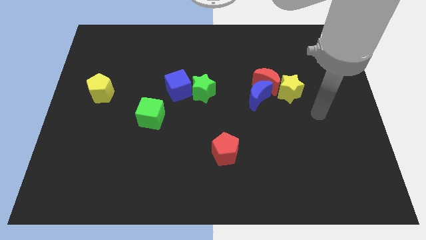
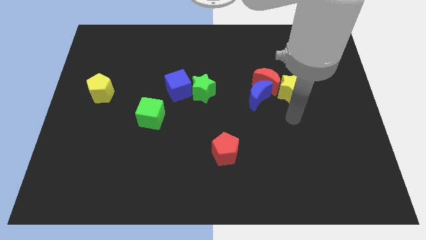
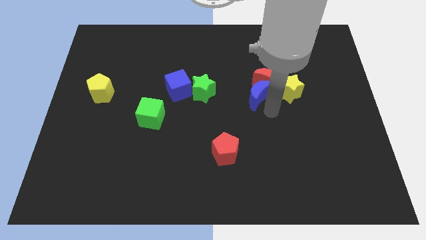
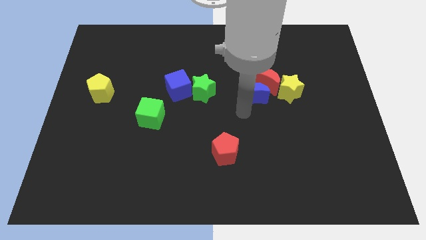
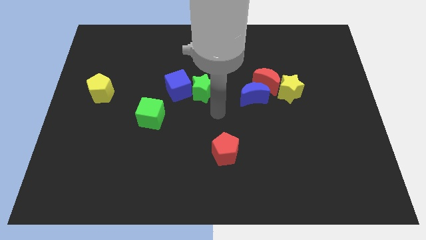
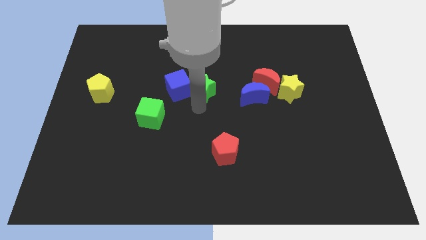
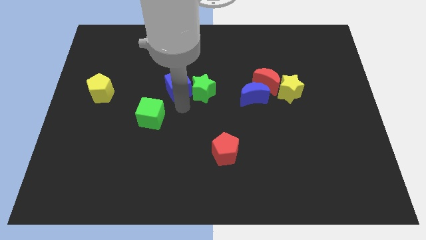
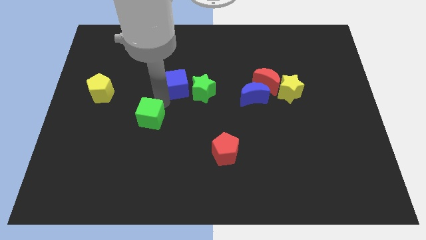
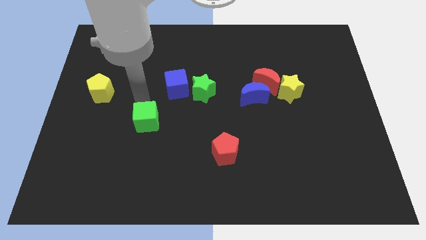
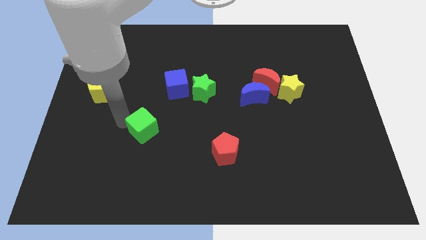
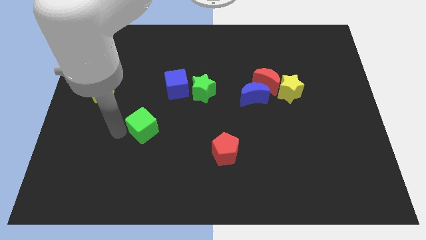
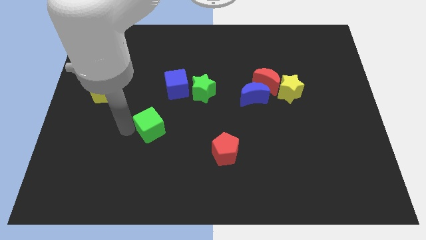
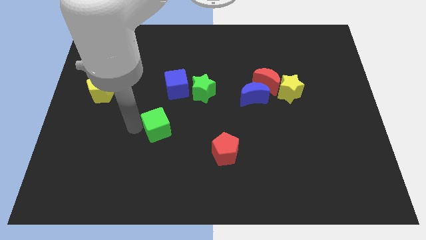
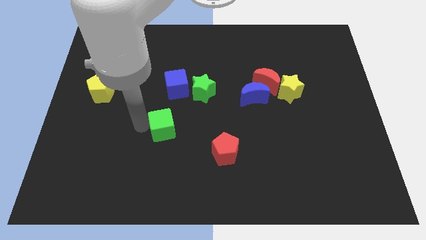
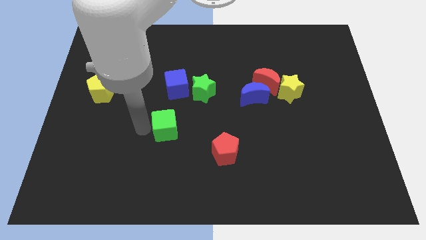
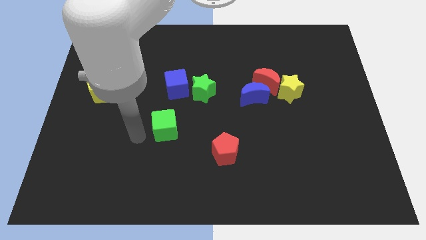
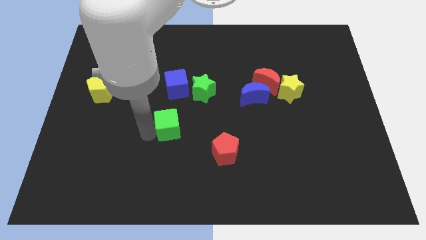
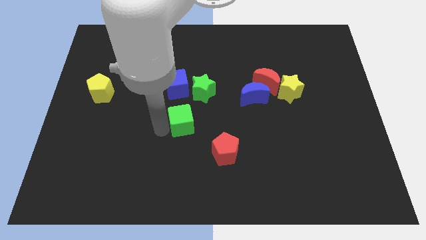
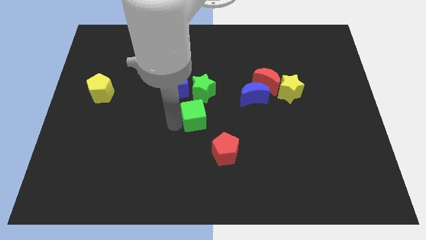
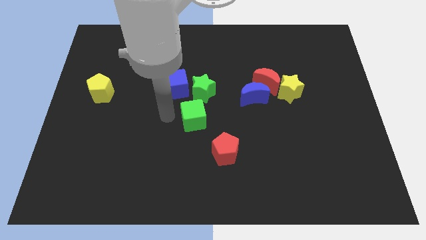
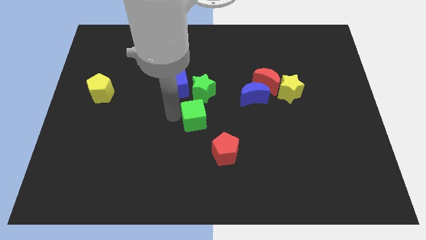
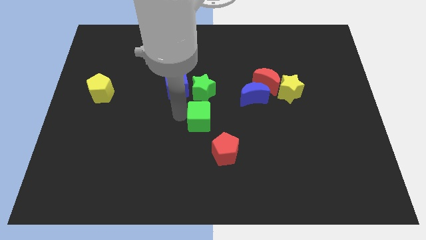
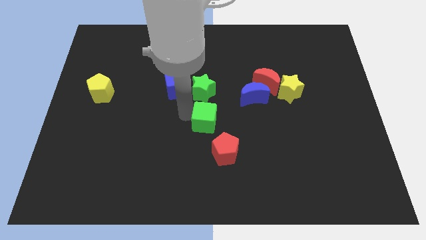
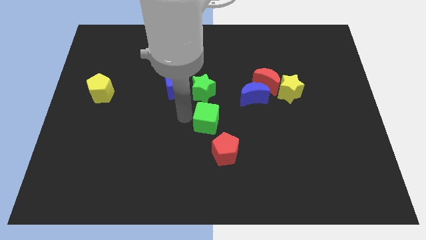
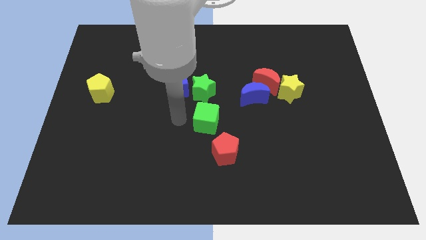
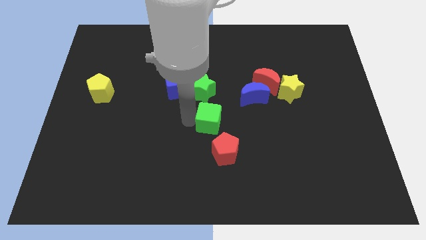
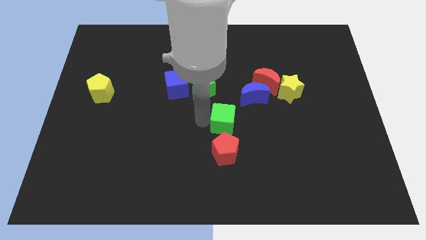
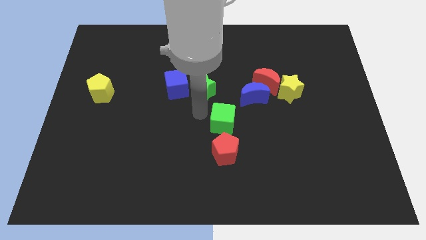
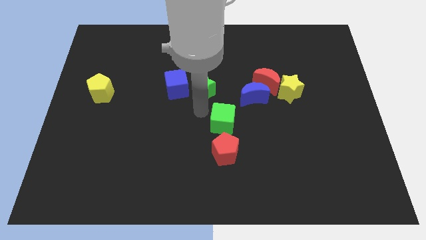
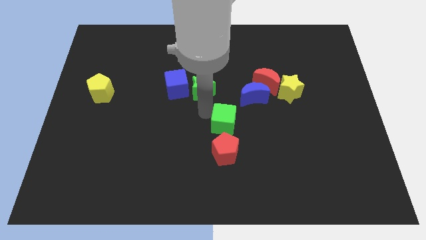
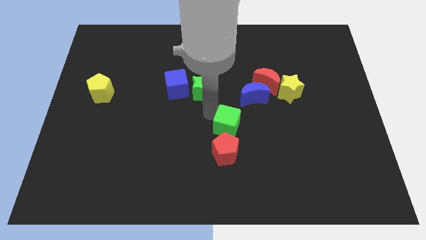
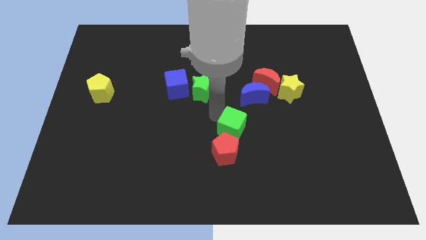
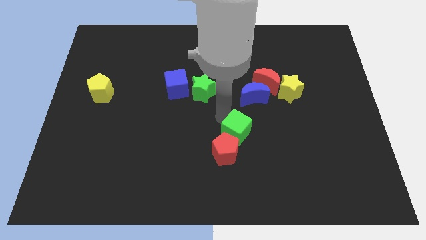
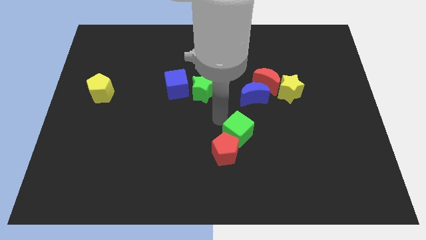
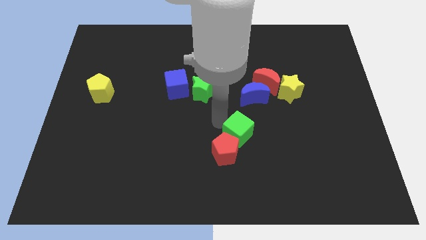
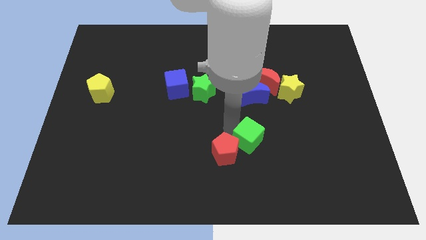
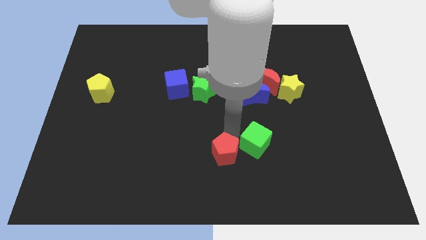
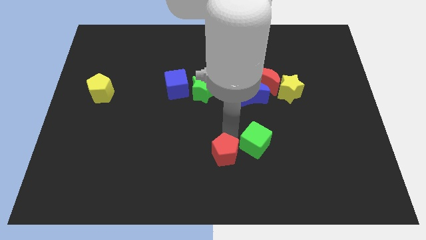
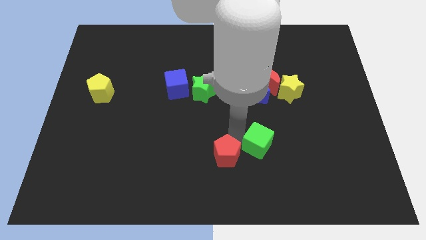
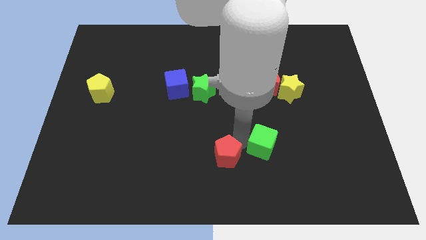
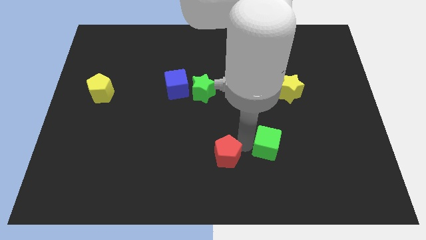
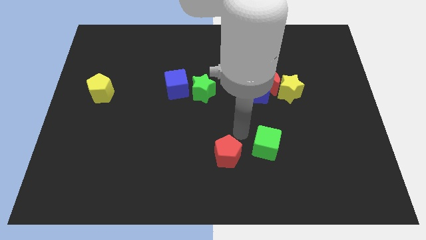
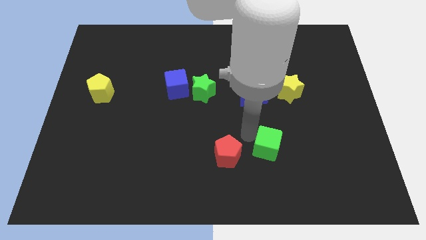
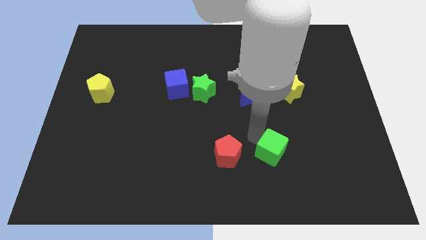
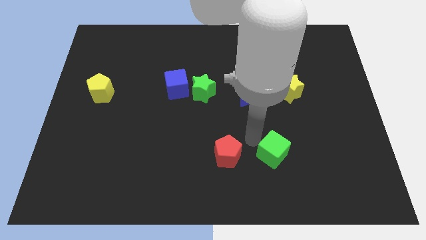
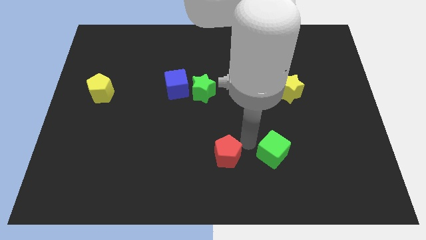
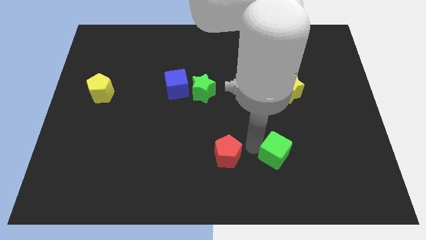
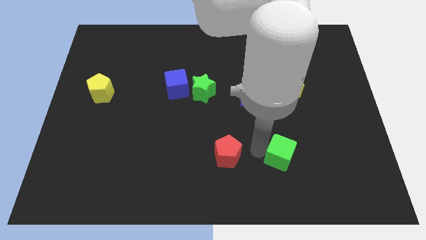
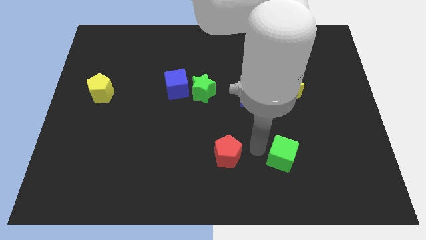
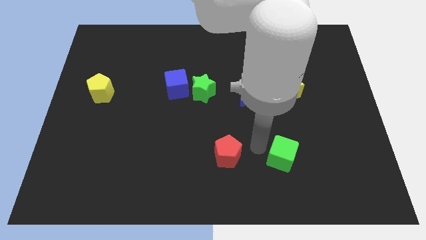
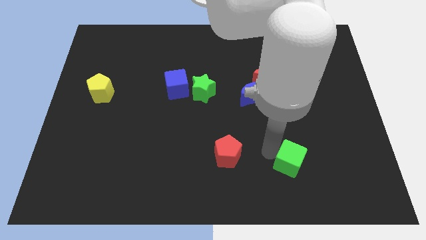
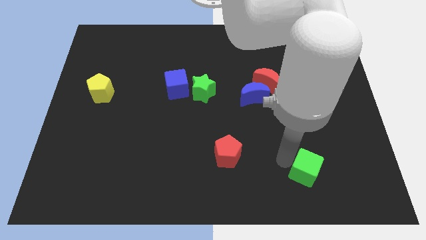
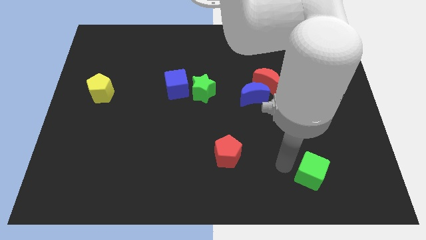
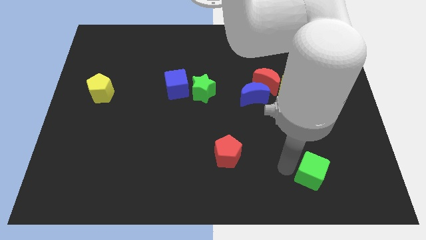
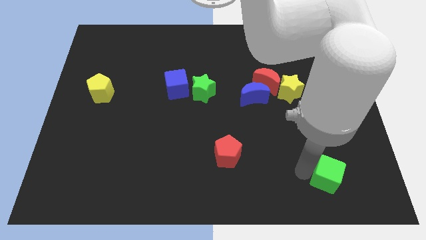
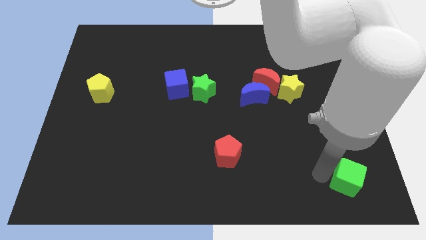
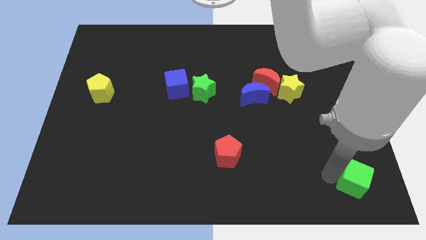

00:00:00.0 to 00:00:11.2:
slide the green cube to the lower right corner
